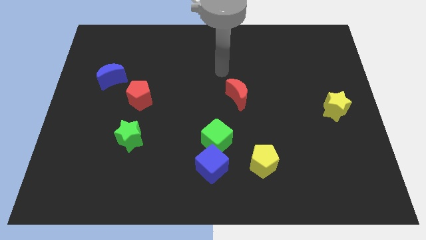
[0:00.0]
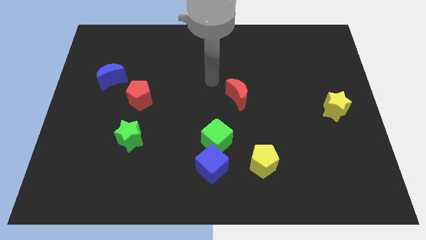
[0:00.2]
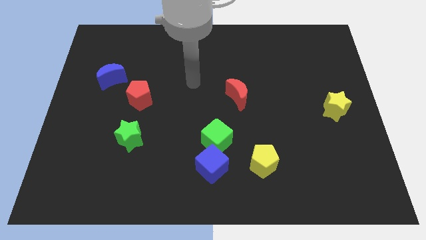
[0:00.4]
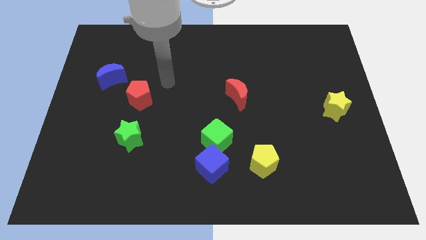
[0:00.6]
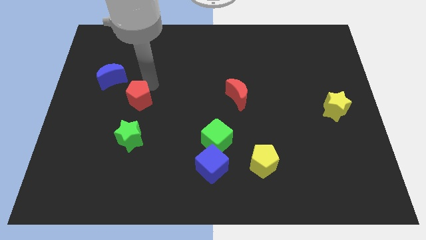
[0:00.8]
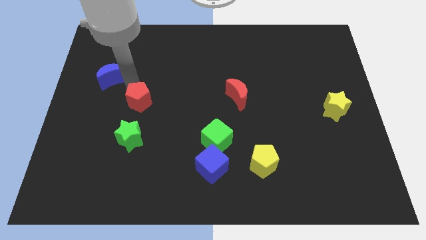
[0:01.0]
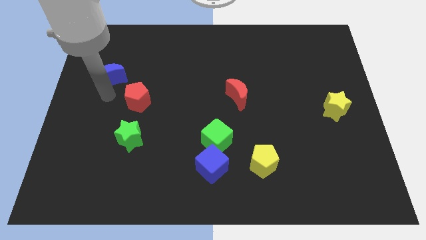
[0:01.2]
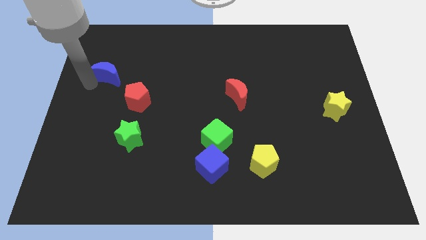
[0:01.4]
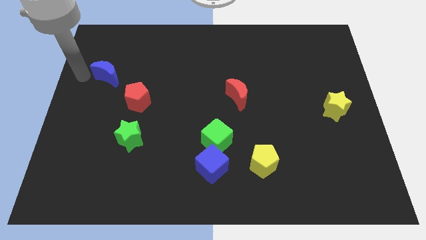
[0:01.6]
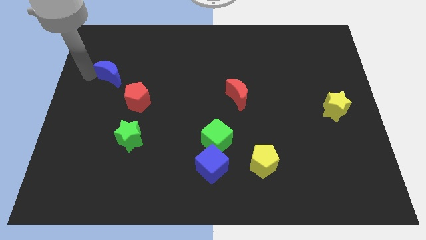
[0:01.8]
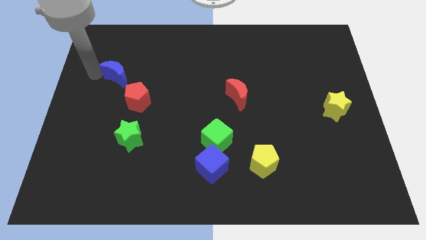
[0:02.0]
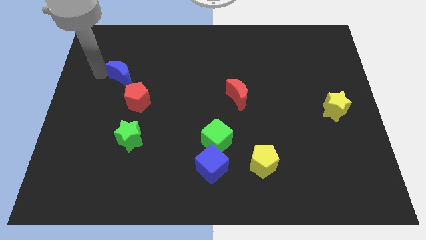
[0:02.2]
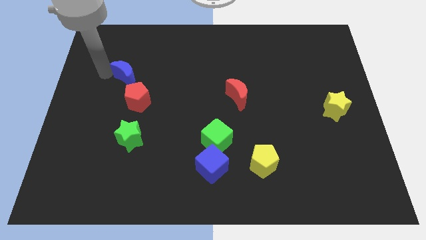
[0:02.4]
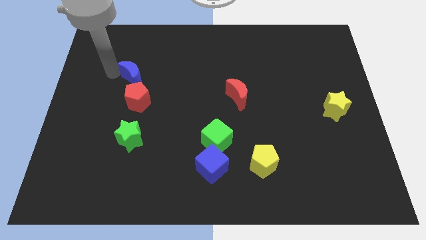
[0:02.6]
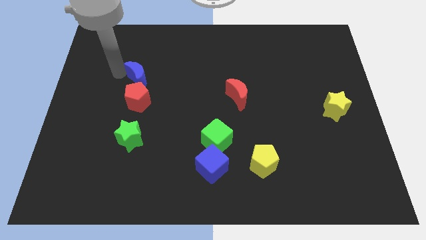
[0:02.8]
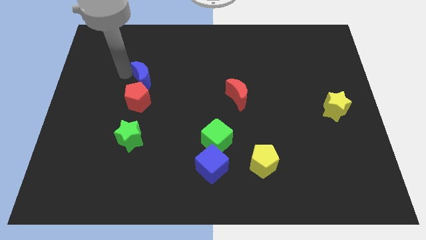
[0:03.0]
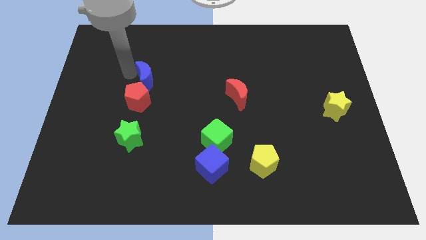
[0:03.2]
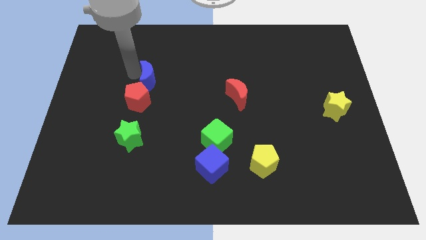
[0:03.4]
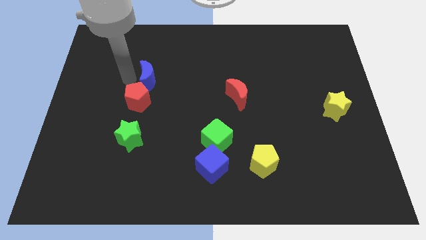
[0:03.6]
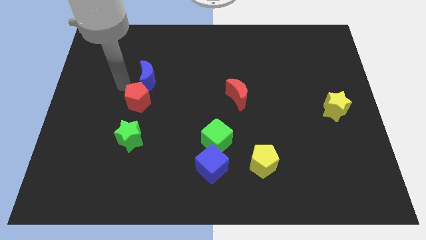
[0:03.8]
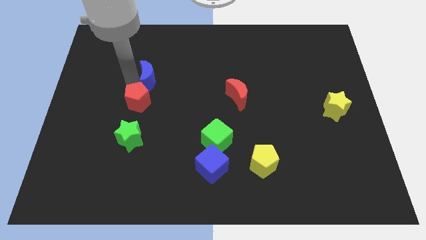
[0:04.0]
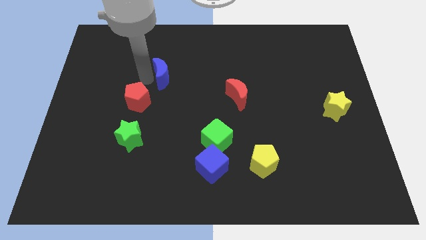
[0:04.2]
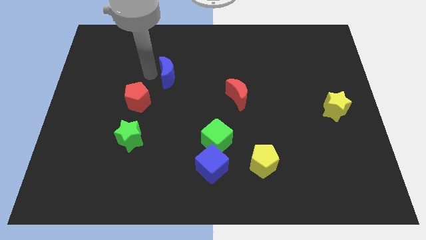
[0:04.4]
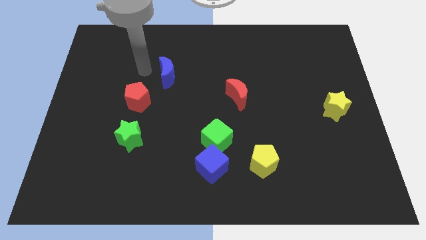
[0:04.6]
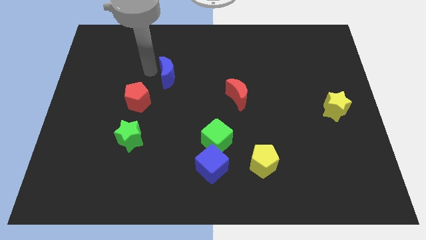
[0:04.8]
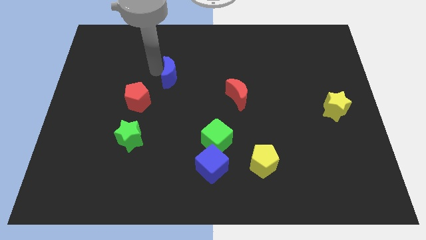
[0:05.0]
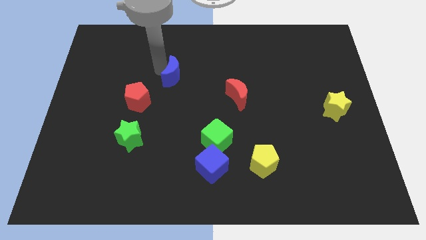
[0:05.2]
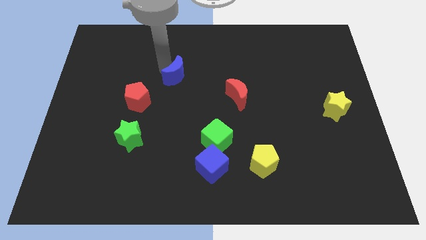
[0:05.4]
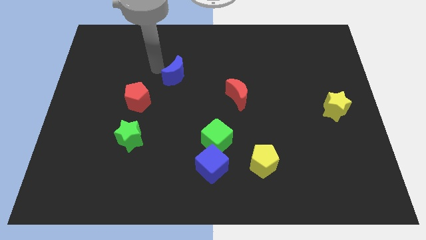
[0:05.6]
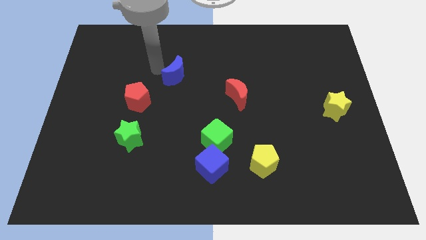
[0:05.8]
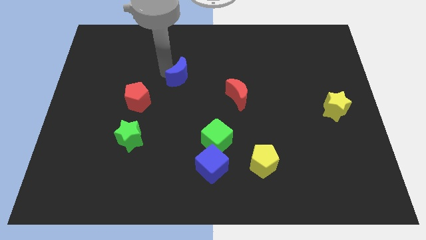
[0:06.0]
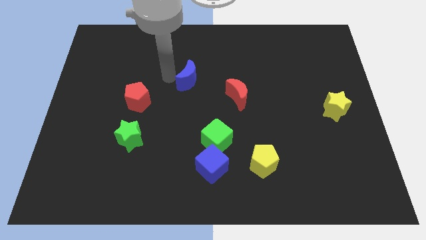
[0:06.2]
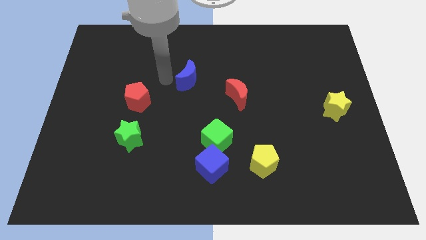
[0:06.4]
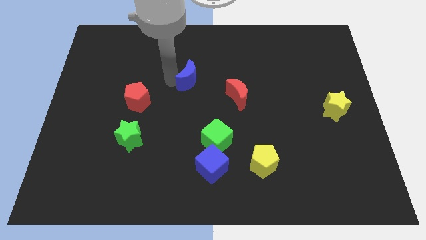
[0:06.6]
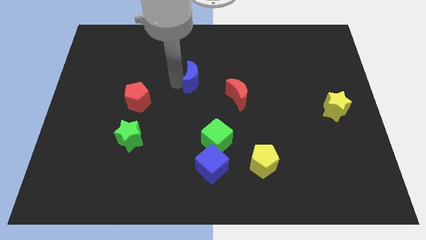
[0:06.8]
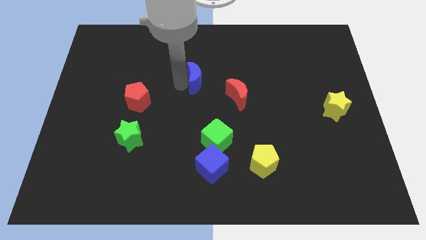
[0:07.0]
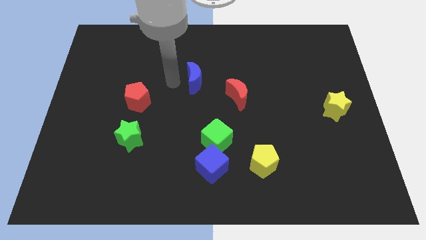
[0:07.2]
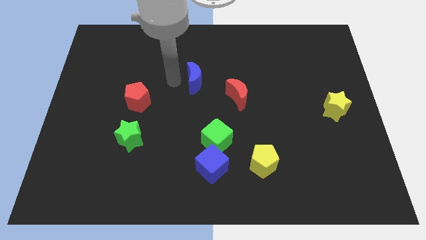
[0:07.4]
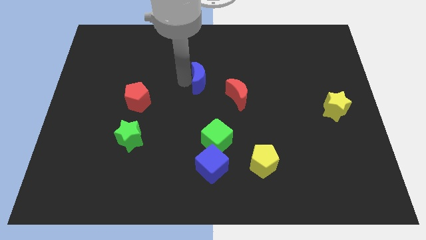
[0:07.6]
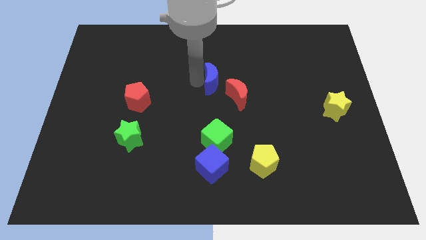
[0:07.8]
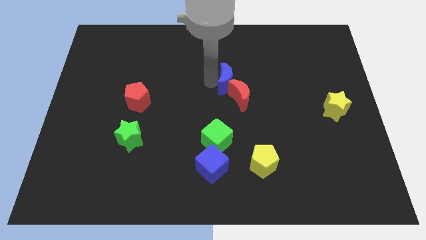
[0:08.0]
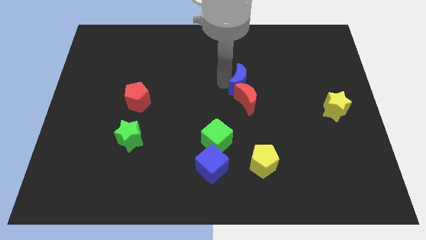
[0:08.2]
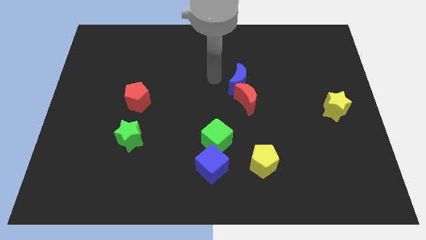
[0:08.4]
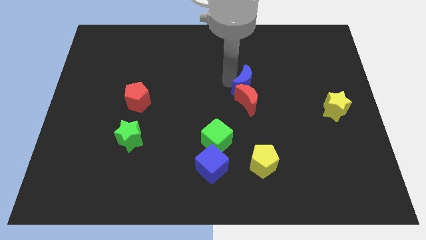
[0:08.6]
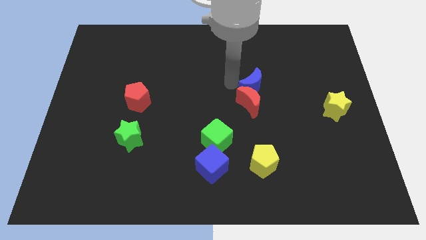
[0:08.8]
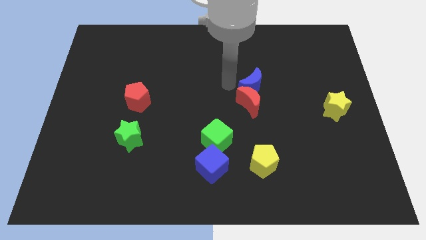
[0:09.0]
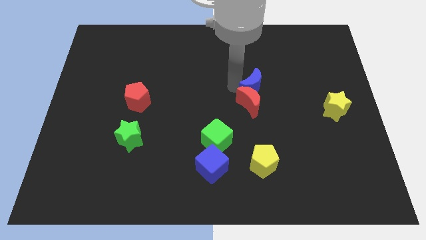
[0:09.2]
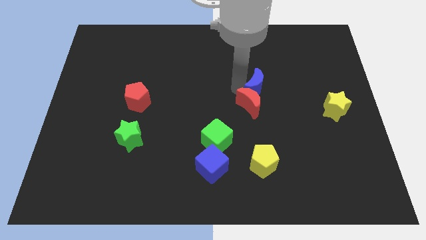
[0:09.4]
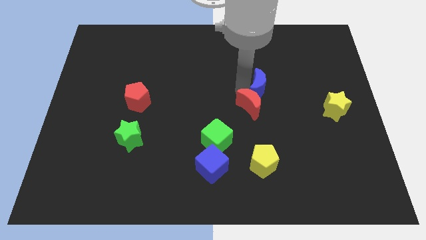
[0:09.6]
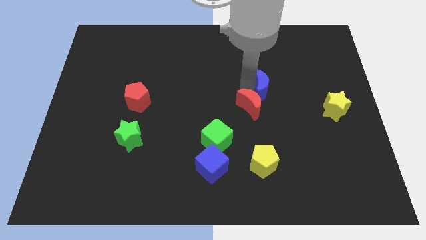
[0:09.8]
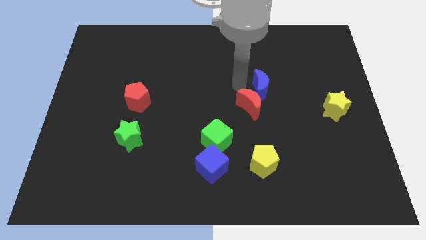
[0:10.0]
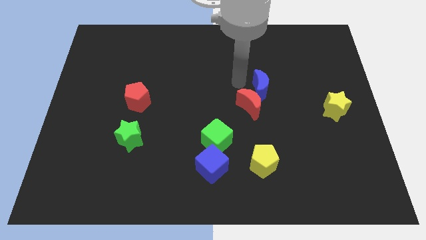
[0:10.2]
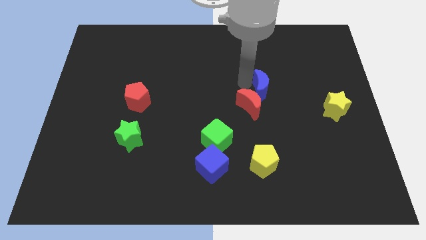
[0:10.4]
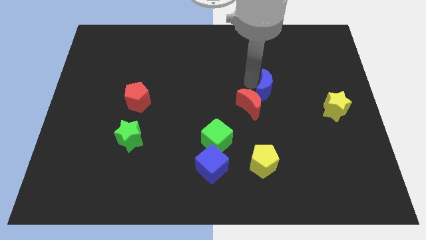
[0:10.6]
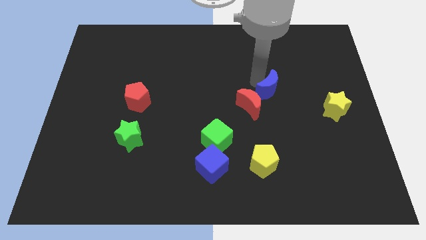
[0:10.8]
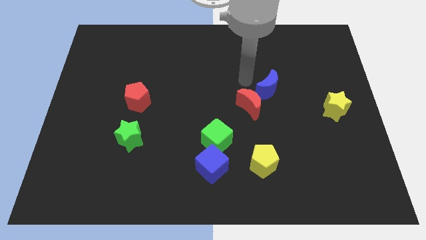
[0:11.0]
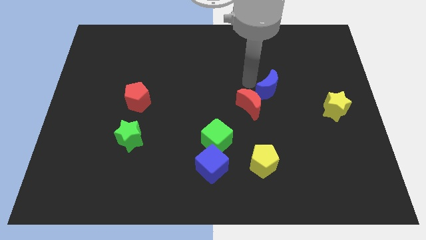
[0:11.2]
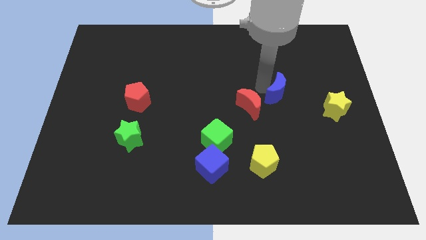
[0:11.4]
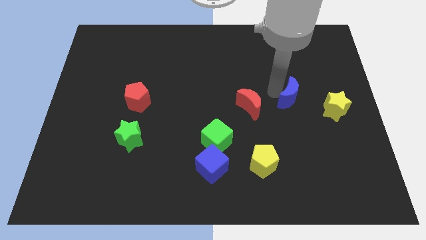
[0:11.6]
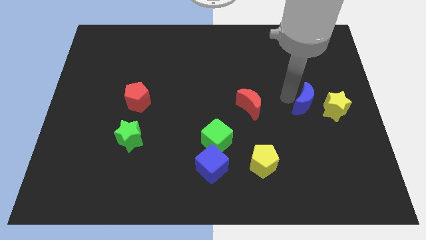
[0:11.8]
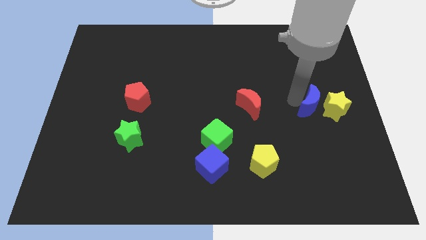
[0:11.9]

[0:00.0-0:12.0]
move the blue moon next to the yellow star

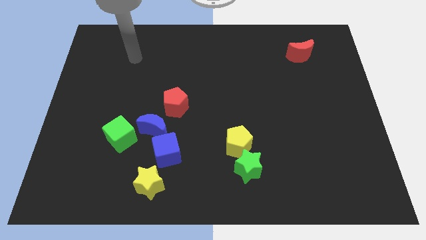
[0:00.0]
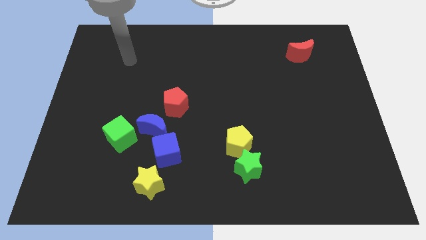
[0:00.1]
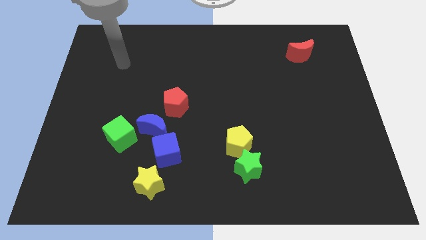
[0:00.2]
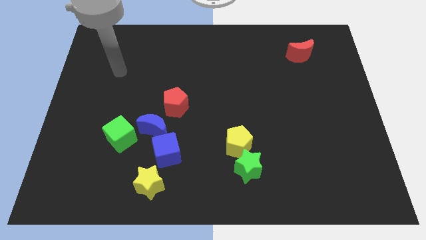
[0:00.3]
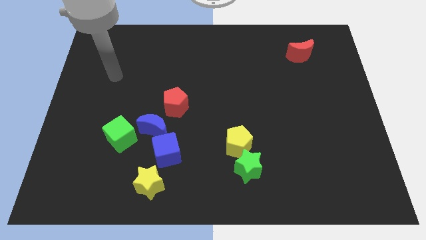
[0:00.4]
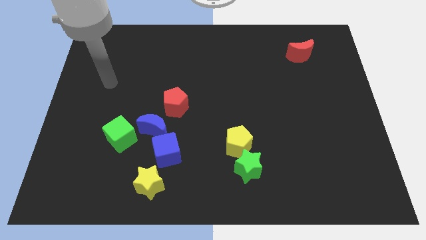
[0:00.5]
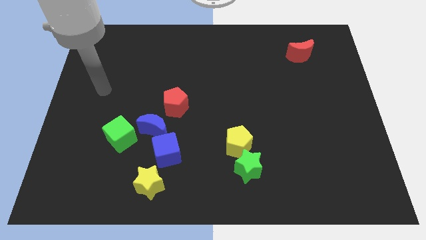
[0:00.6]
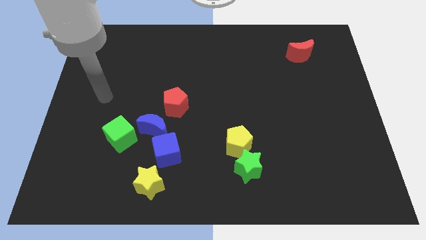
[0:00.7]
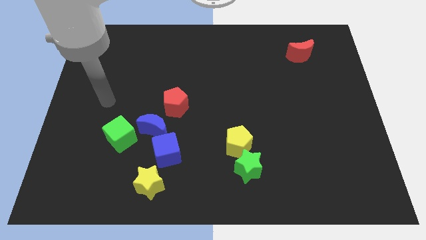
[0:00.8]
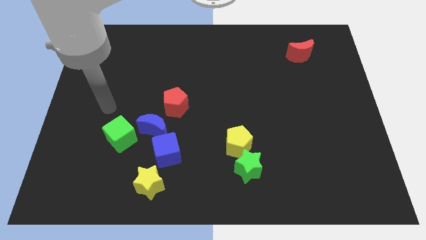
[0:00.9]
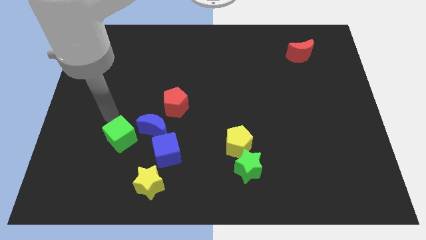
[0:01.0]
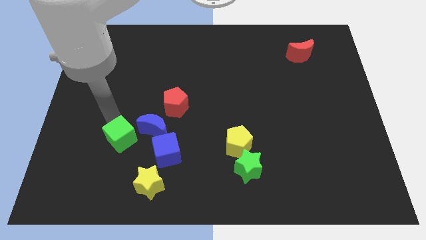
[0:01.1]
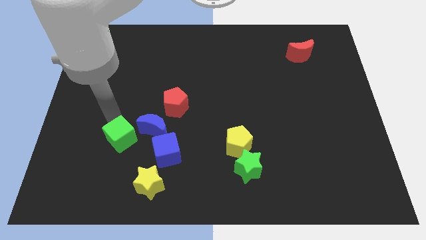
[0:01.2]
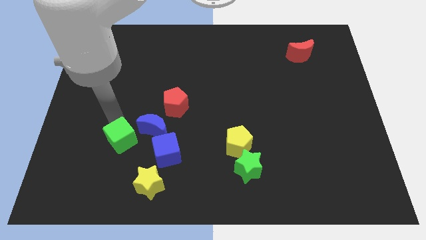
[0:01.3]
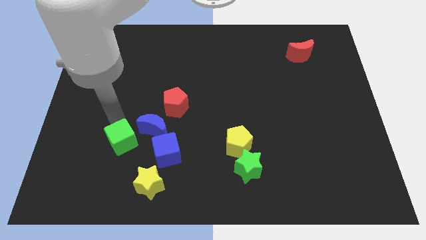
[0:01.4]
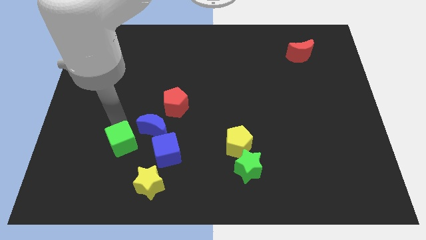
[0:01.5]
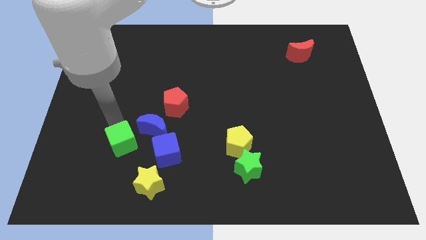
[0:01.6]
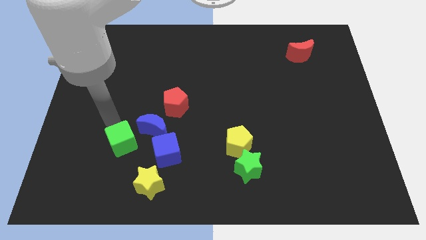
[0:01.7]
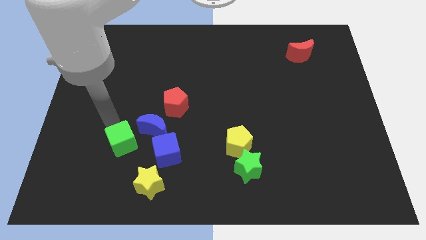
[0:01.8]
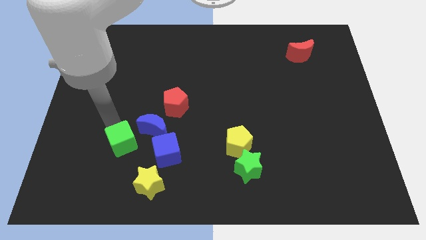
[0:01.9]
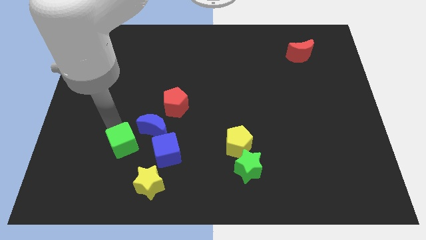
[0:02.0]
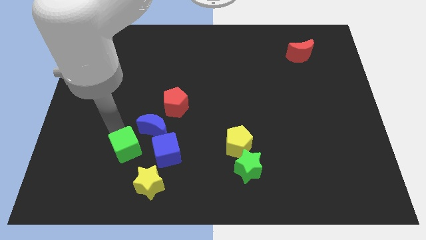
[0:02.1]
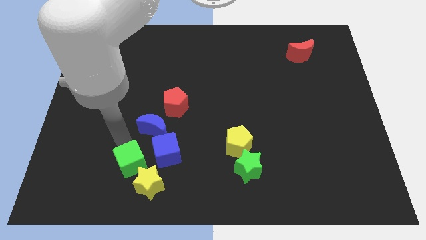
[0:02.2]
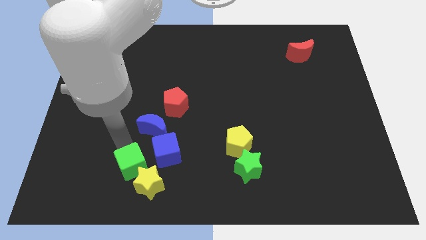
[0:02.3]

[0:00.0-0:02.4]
slide the green cube towards the yellow star
